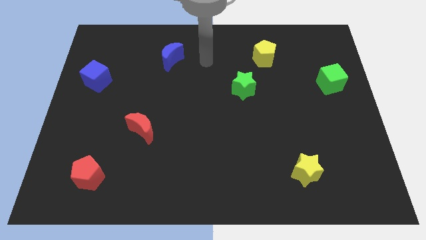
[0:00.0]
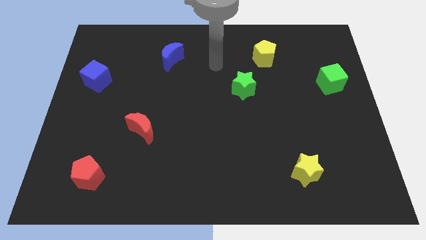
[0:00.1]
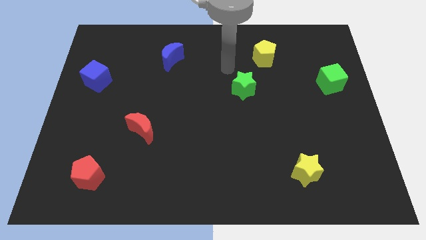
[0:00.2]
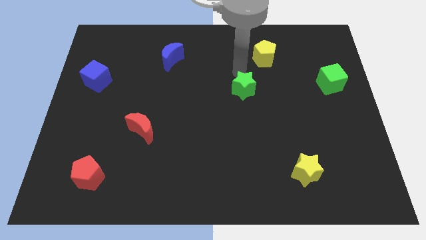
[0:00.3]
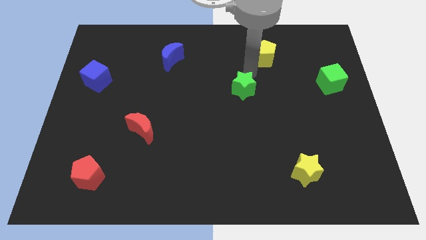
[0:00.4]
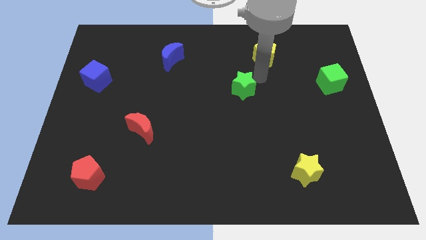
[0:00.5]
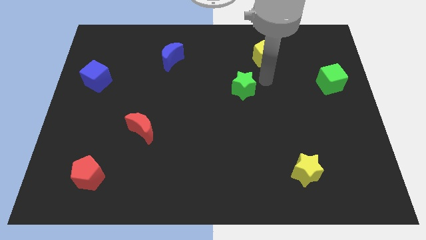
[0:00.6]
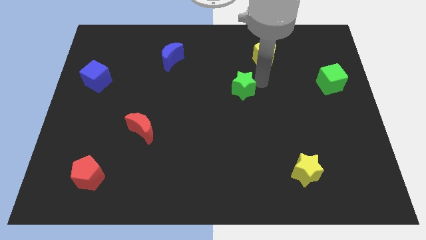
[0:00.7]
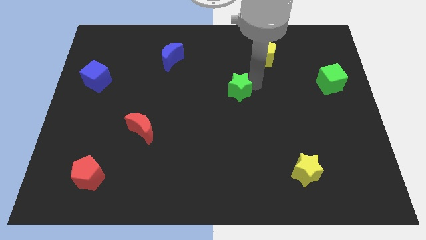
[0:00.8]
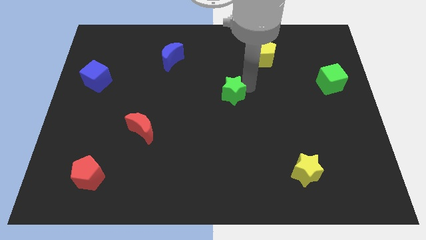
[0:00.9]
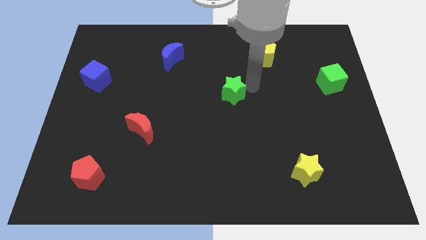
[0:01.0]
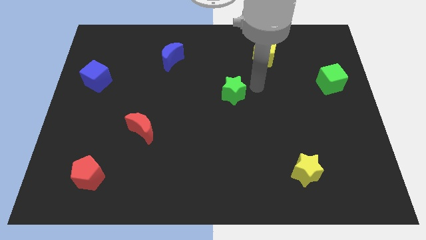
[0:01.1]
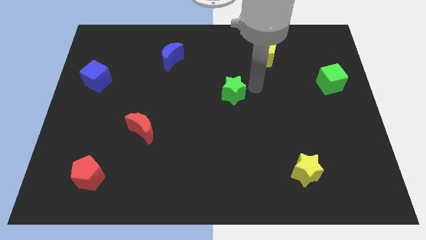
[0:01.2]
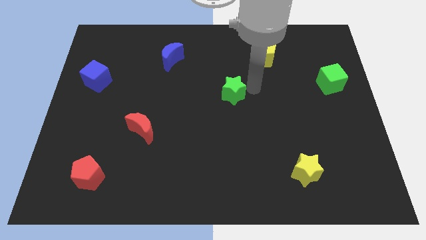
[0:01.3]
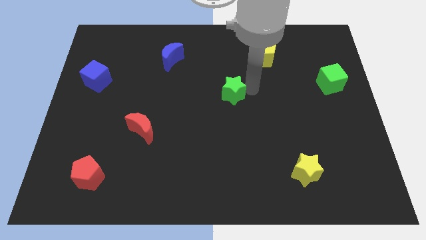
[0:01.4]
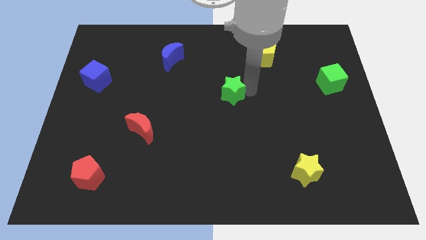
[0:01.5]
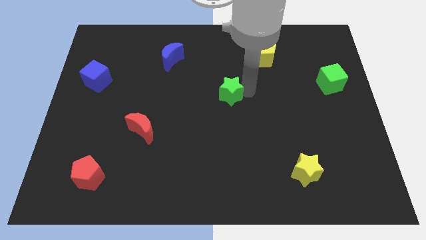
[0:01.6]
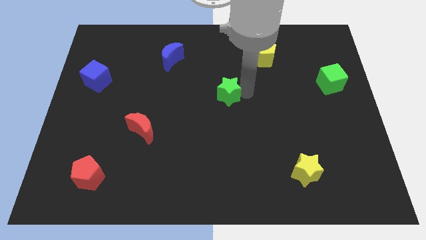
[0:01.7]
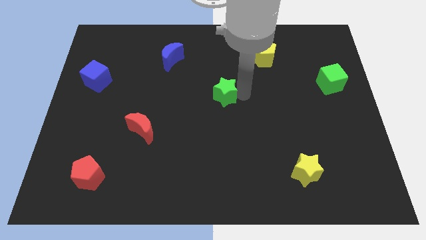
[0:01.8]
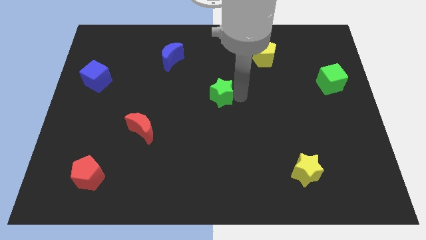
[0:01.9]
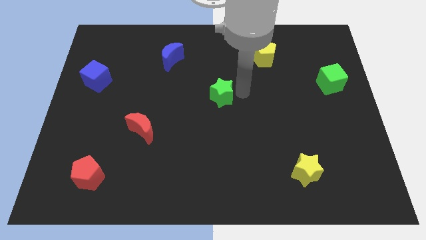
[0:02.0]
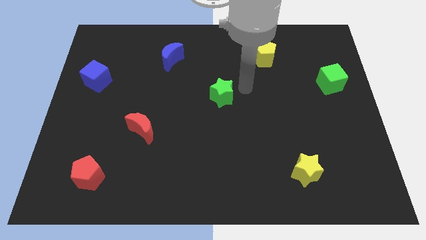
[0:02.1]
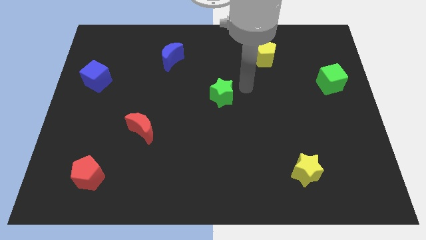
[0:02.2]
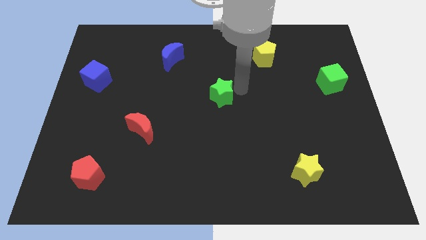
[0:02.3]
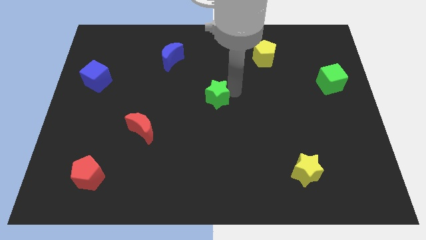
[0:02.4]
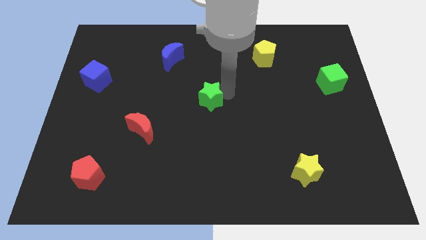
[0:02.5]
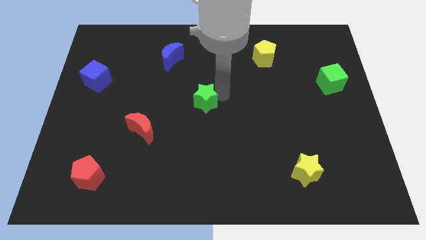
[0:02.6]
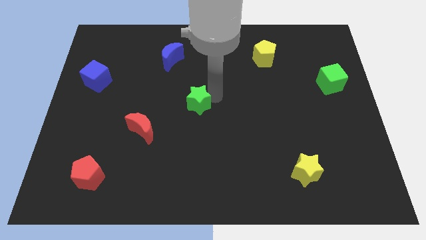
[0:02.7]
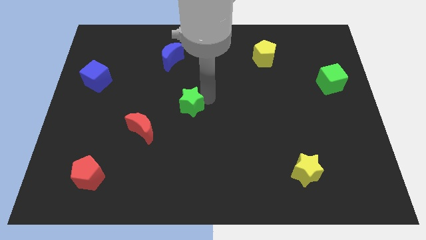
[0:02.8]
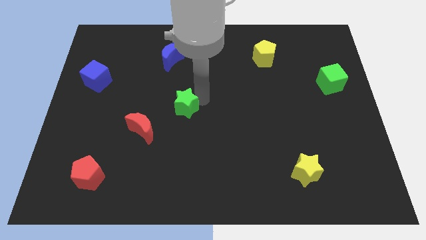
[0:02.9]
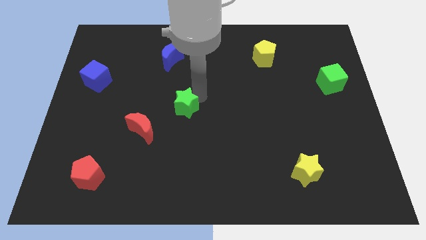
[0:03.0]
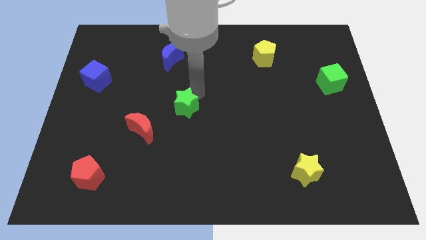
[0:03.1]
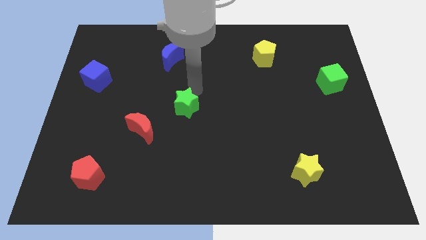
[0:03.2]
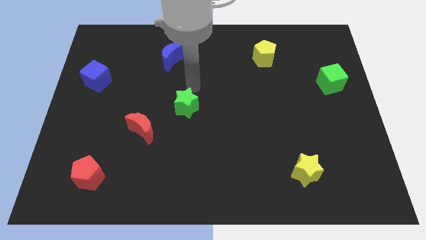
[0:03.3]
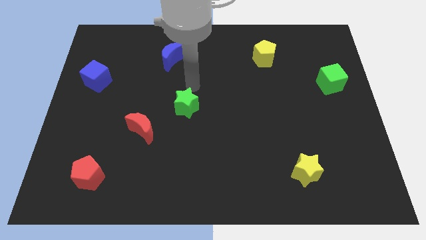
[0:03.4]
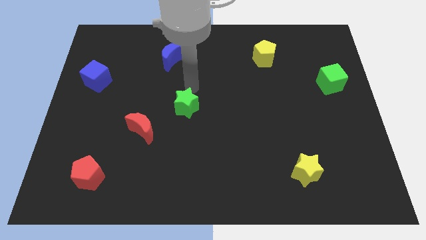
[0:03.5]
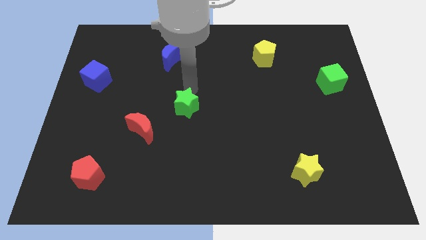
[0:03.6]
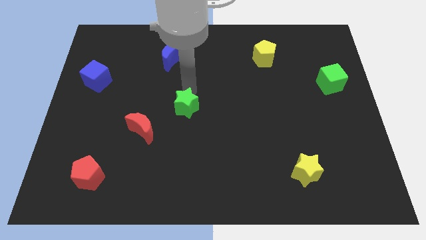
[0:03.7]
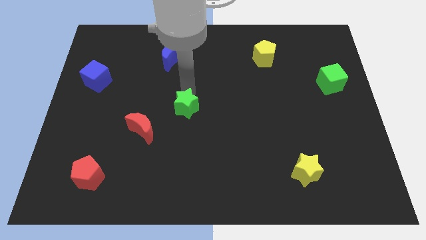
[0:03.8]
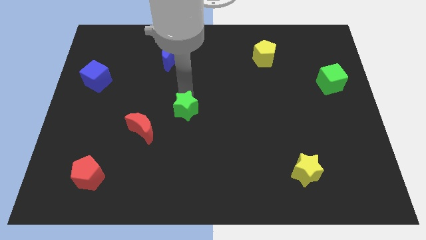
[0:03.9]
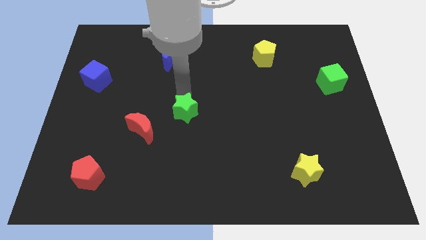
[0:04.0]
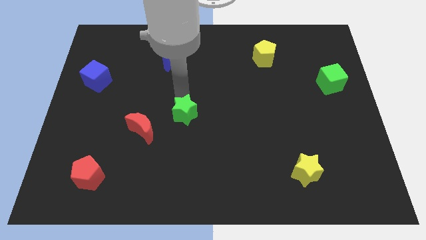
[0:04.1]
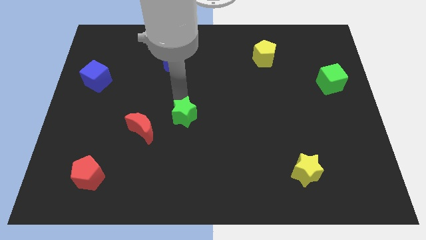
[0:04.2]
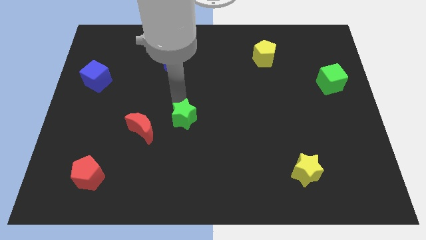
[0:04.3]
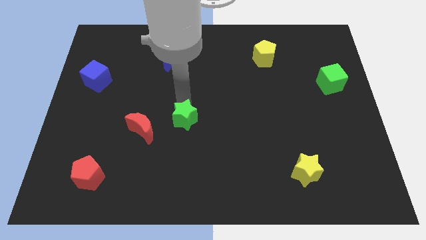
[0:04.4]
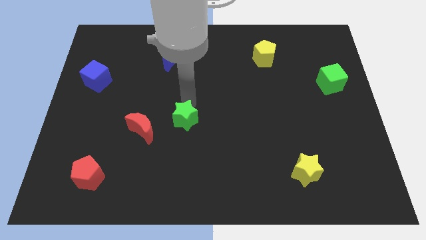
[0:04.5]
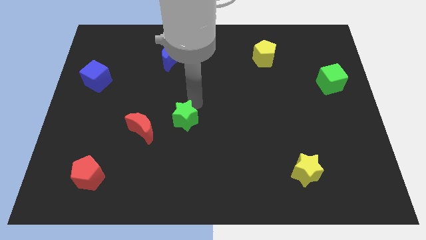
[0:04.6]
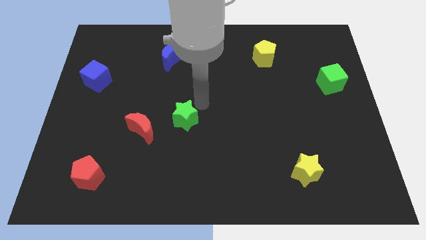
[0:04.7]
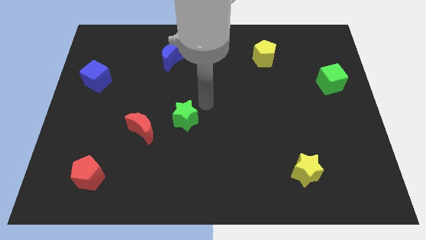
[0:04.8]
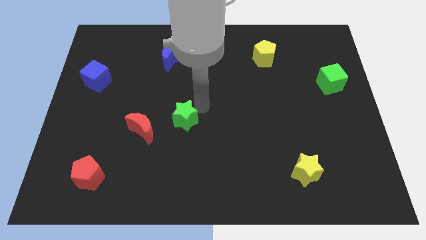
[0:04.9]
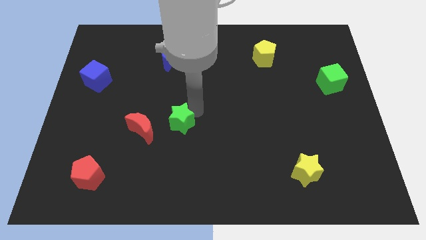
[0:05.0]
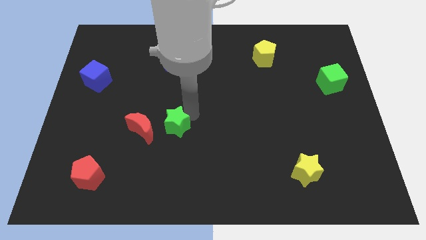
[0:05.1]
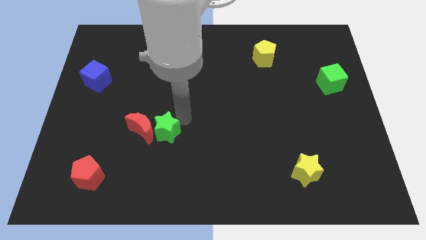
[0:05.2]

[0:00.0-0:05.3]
push the green star diagonally down and left

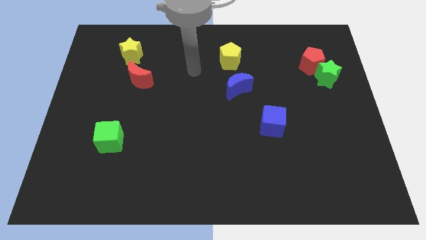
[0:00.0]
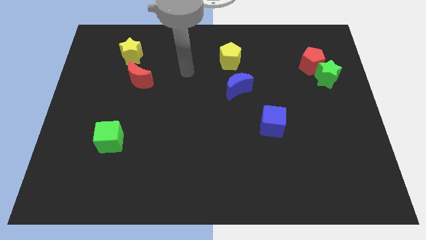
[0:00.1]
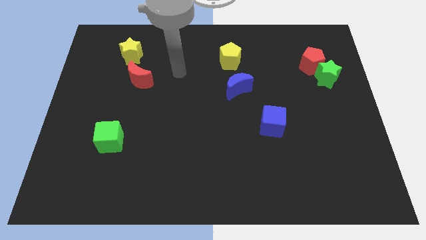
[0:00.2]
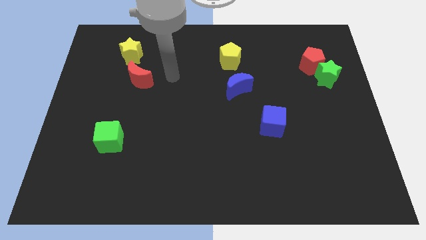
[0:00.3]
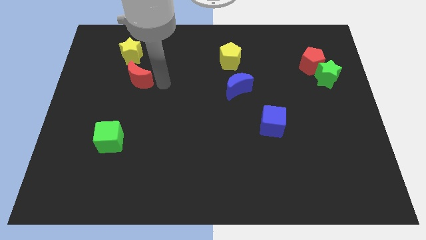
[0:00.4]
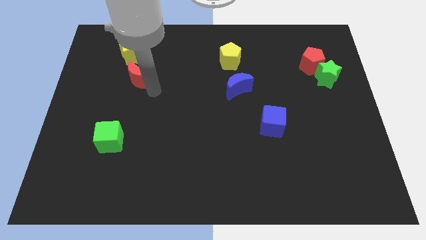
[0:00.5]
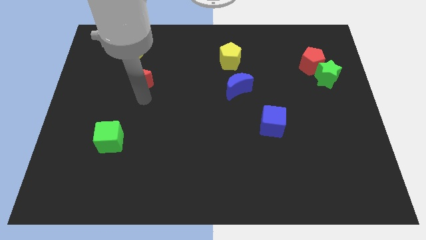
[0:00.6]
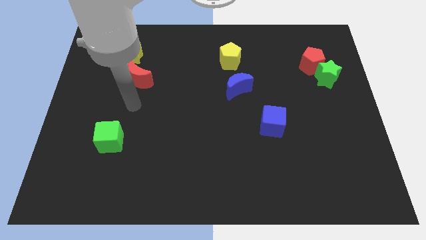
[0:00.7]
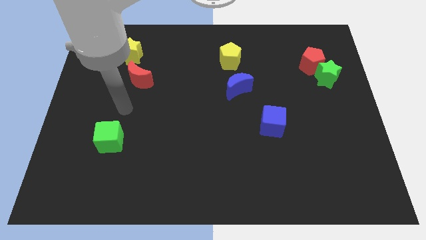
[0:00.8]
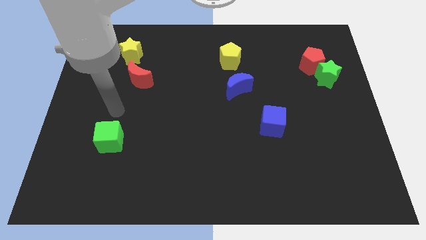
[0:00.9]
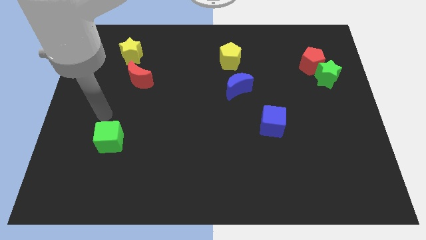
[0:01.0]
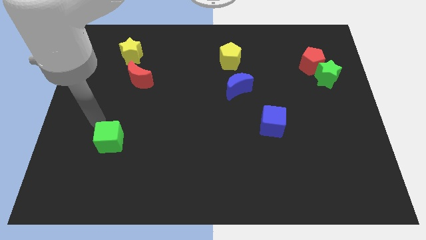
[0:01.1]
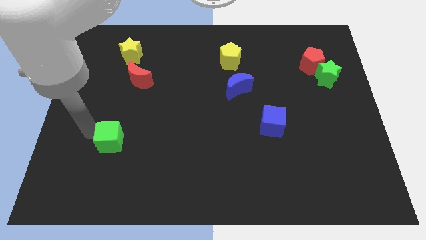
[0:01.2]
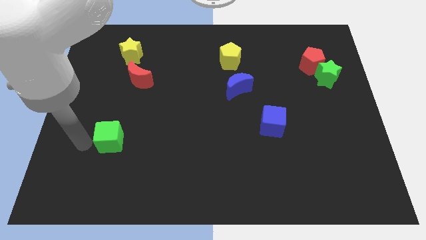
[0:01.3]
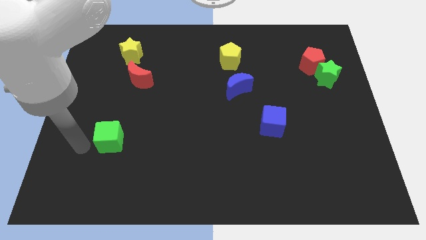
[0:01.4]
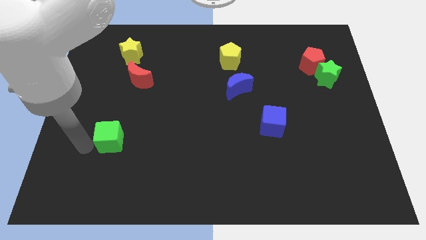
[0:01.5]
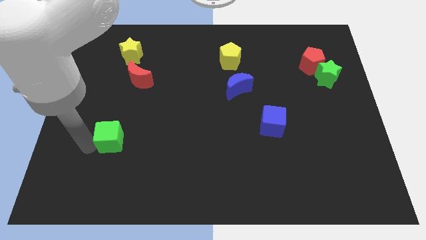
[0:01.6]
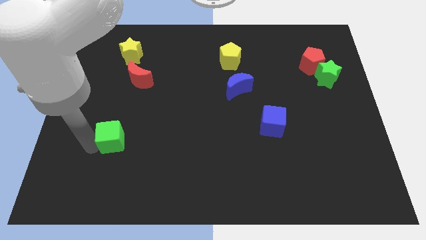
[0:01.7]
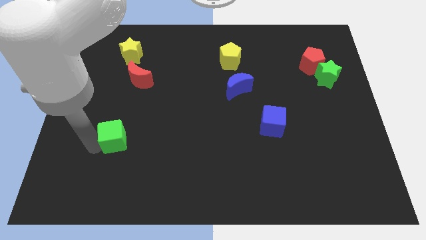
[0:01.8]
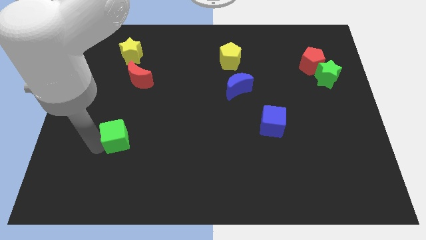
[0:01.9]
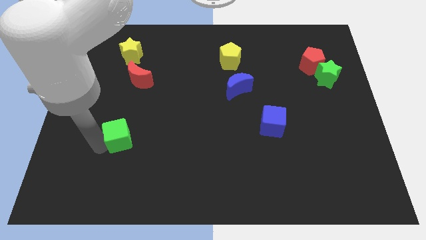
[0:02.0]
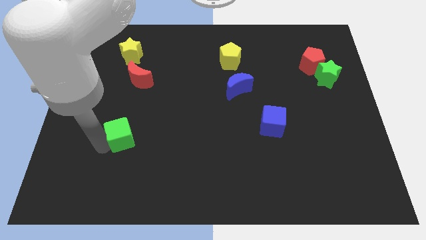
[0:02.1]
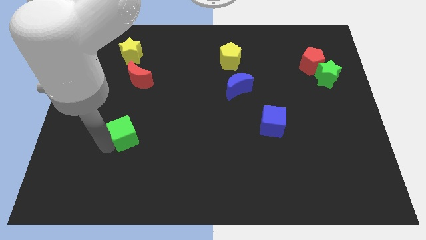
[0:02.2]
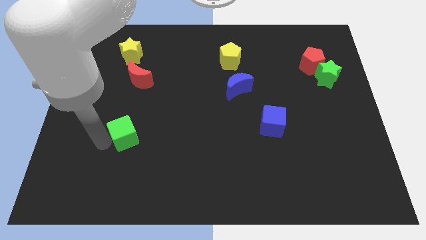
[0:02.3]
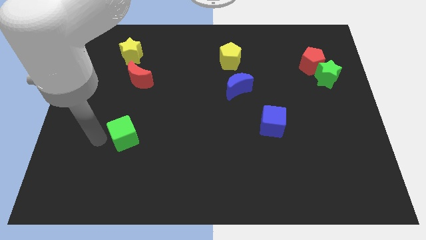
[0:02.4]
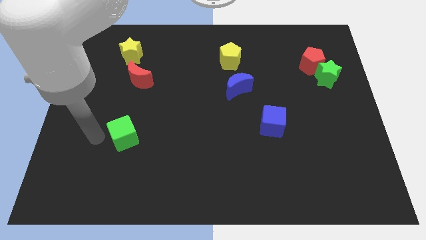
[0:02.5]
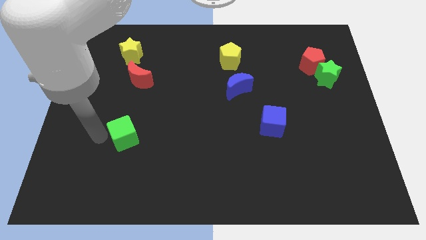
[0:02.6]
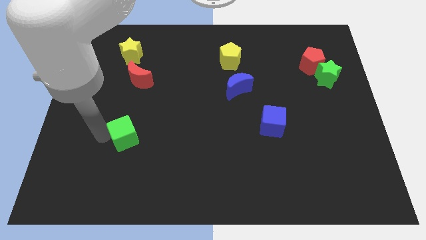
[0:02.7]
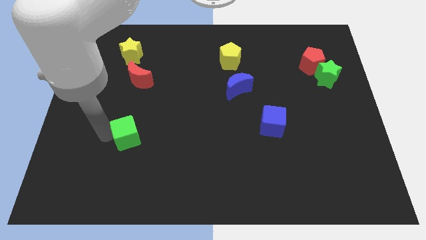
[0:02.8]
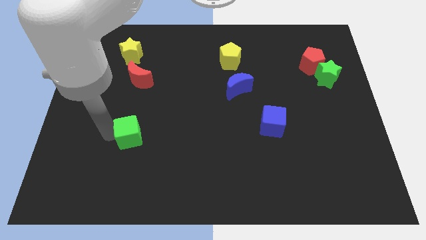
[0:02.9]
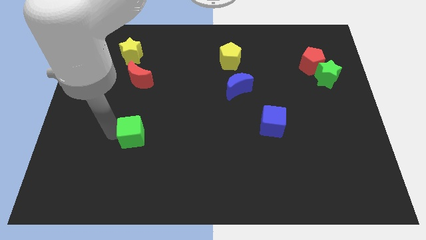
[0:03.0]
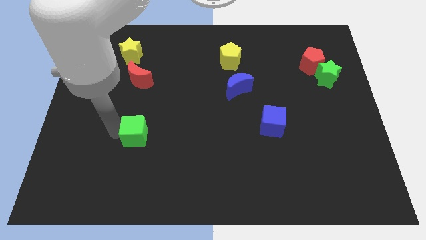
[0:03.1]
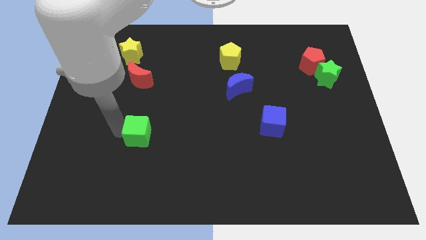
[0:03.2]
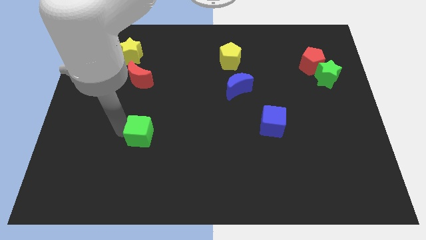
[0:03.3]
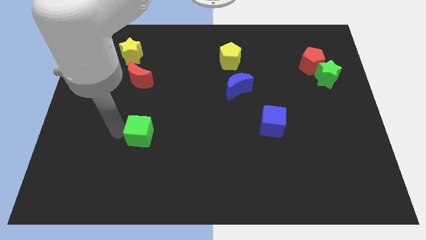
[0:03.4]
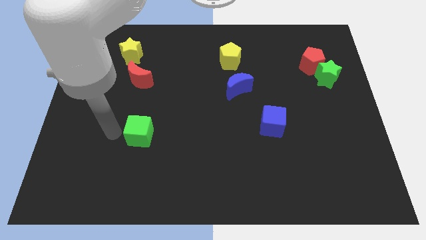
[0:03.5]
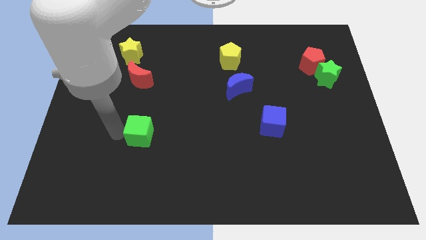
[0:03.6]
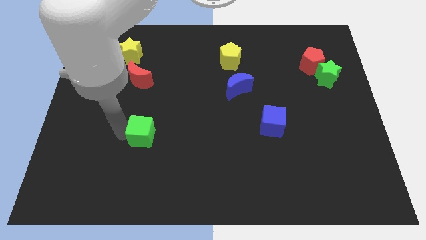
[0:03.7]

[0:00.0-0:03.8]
slide the green cube a little right
